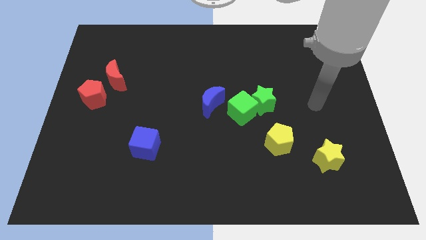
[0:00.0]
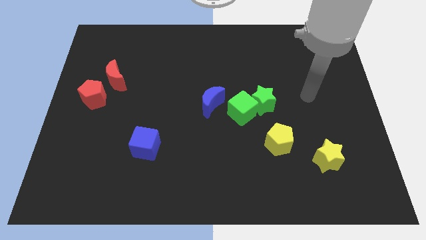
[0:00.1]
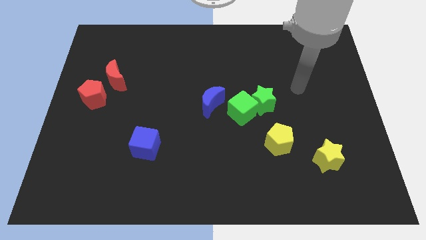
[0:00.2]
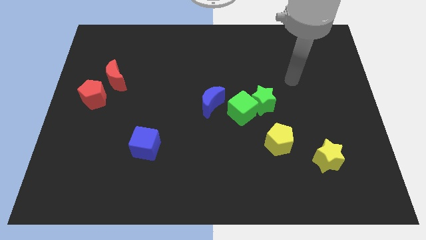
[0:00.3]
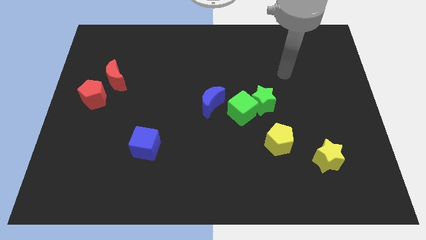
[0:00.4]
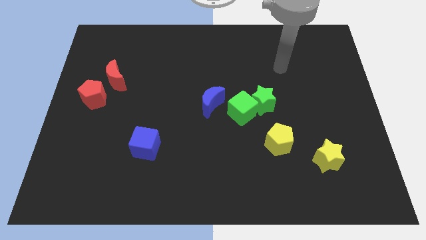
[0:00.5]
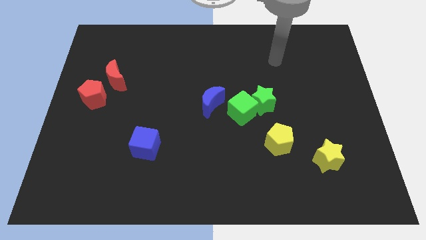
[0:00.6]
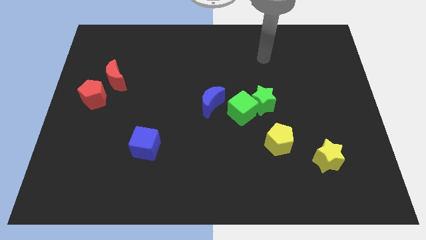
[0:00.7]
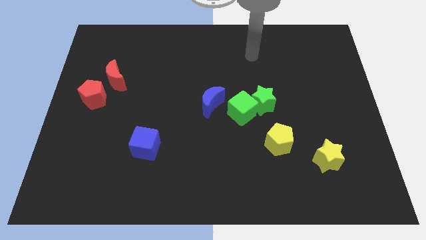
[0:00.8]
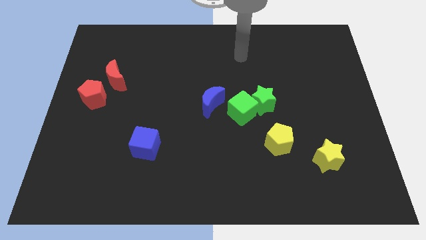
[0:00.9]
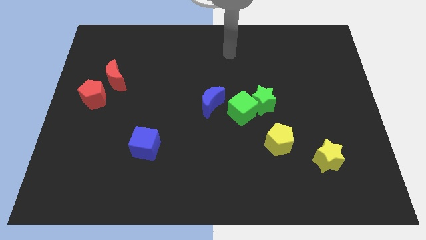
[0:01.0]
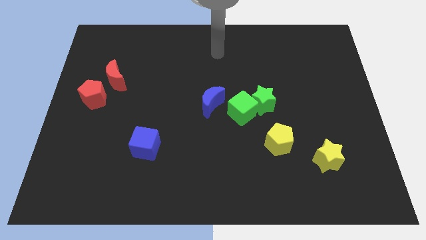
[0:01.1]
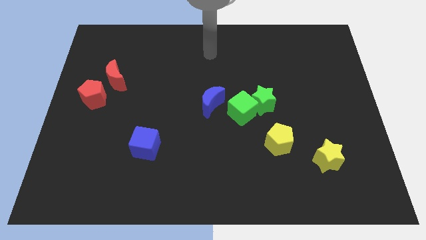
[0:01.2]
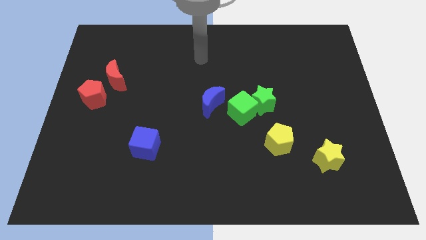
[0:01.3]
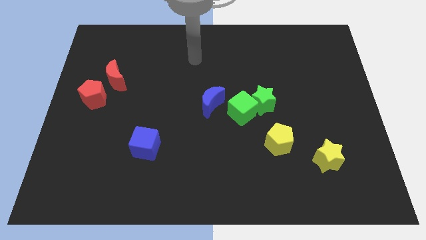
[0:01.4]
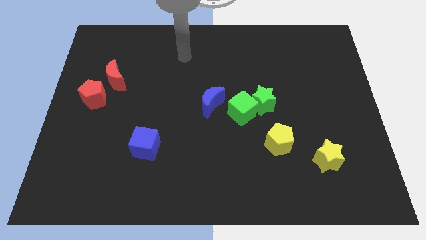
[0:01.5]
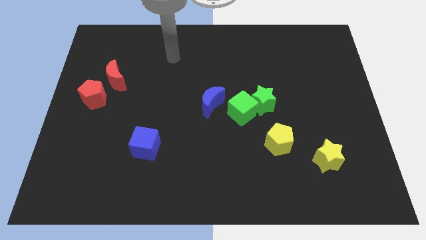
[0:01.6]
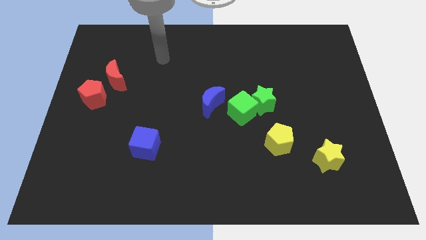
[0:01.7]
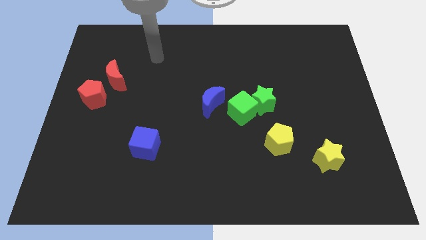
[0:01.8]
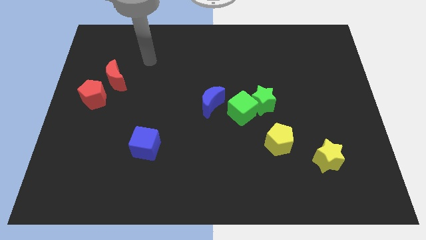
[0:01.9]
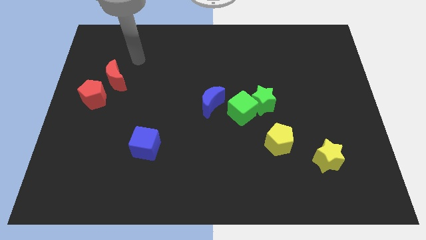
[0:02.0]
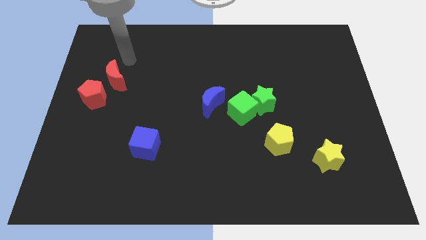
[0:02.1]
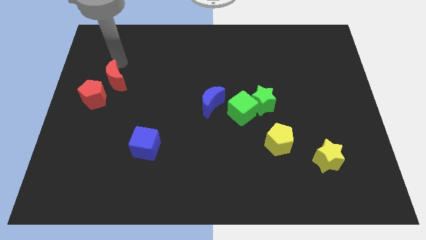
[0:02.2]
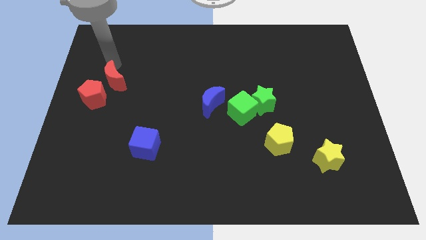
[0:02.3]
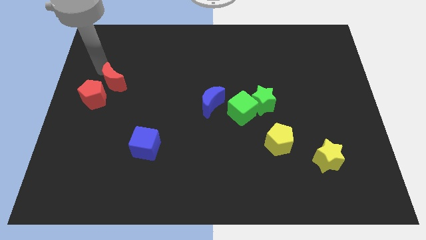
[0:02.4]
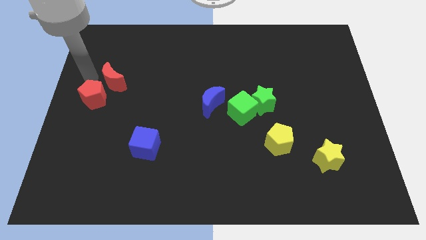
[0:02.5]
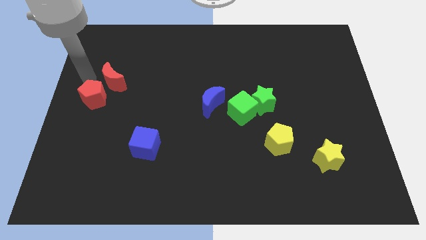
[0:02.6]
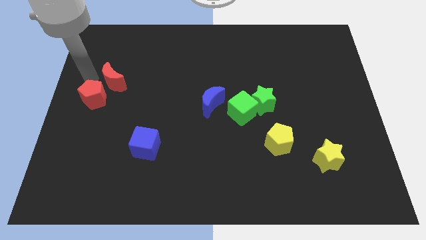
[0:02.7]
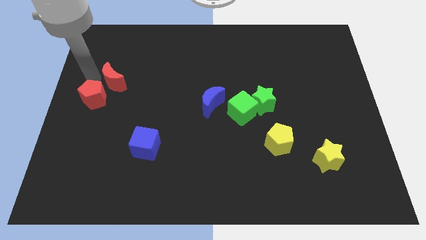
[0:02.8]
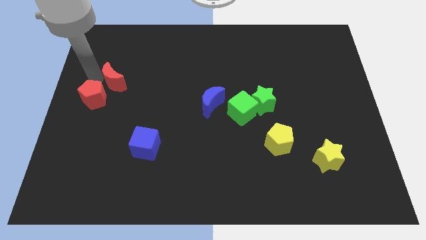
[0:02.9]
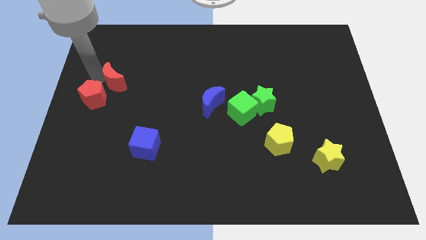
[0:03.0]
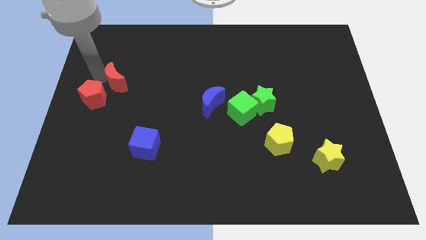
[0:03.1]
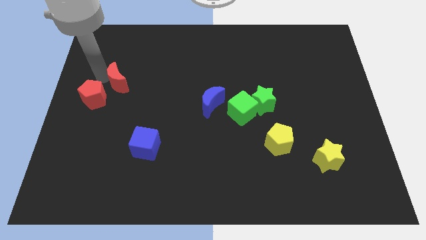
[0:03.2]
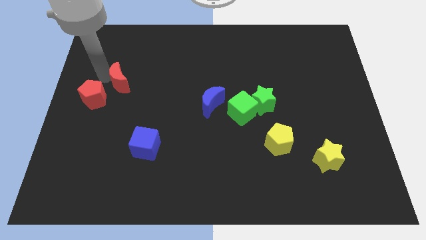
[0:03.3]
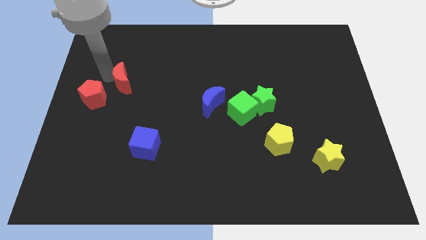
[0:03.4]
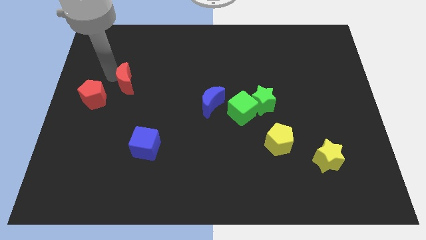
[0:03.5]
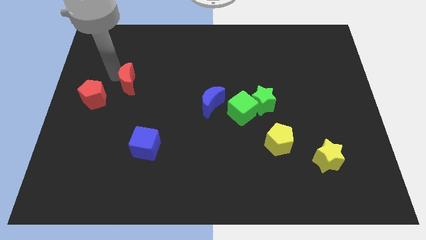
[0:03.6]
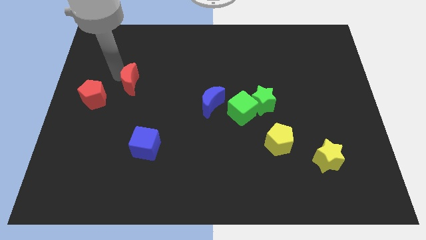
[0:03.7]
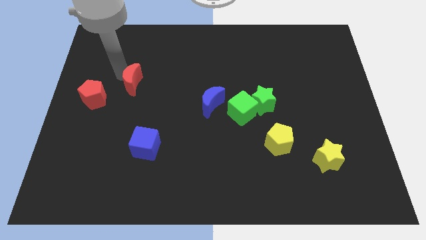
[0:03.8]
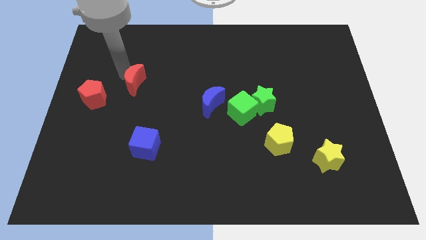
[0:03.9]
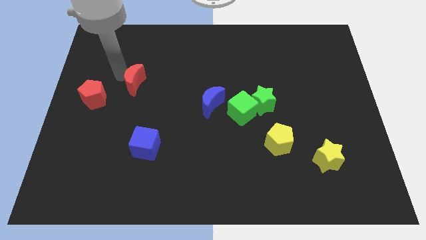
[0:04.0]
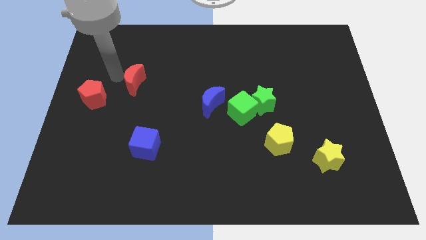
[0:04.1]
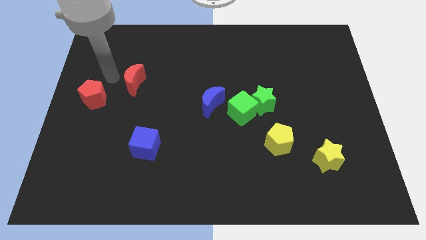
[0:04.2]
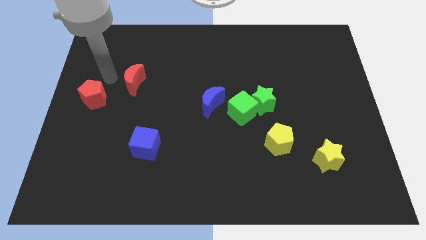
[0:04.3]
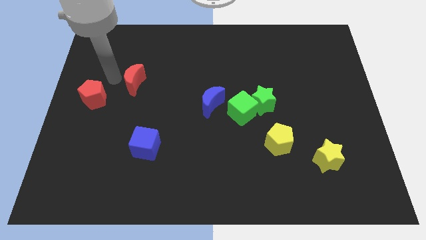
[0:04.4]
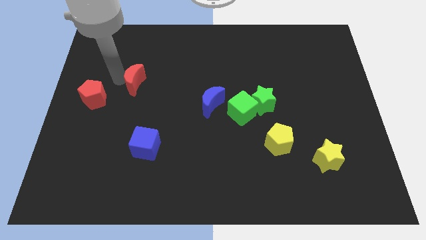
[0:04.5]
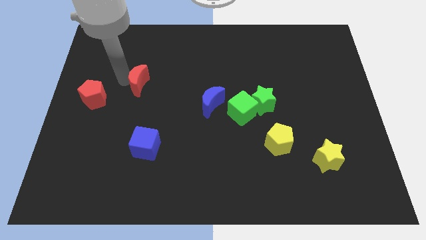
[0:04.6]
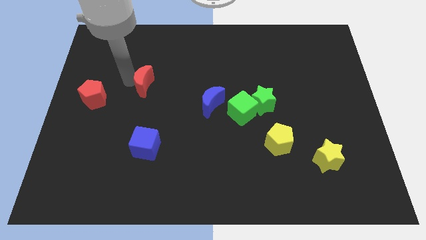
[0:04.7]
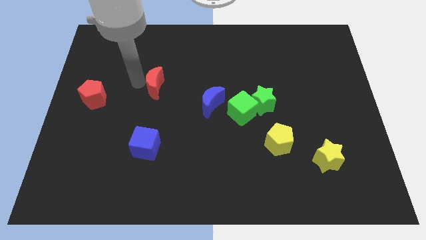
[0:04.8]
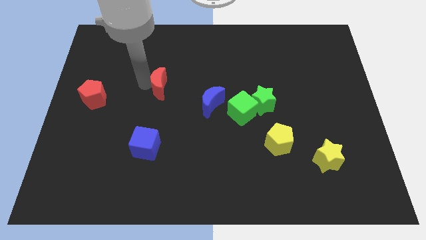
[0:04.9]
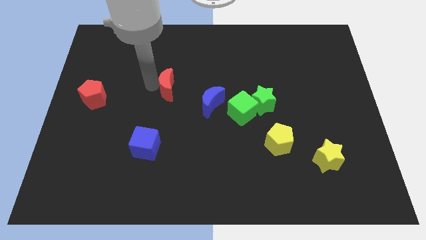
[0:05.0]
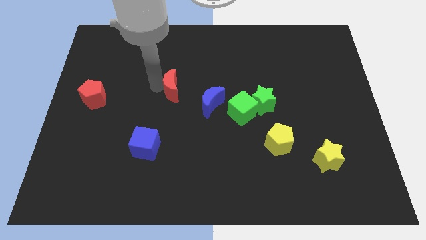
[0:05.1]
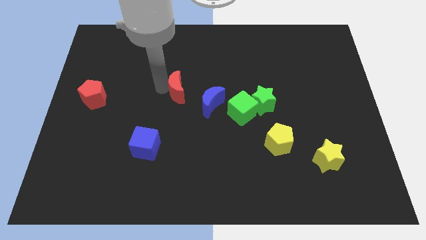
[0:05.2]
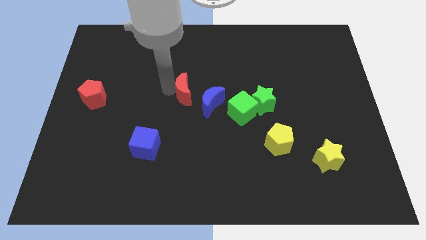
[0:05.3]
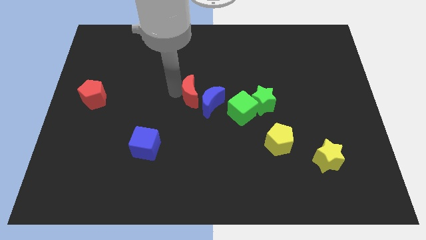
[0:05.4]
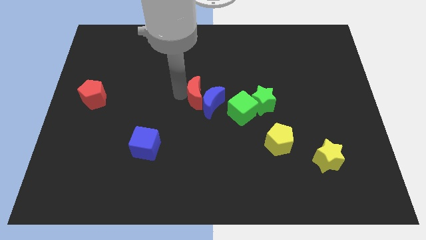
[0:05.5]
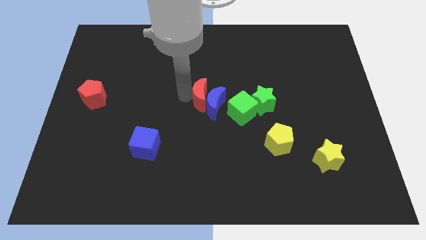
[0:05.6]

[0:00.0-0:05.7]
slide the red moon to the right

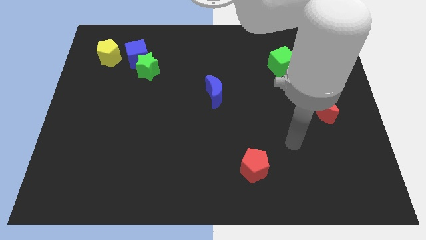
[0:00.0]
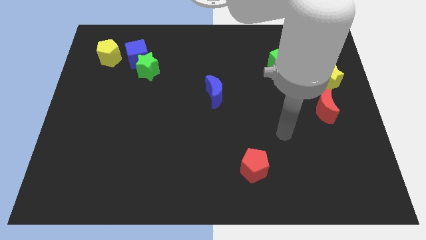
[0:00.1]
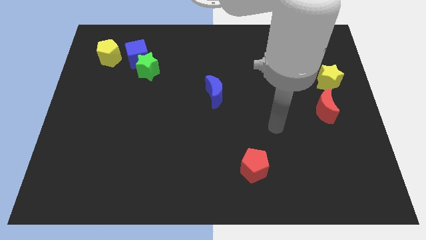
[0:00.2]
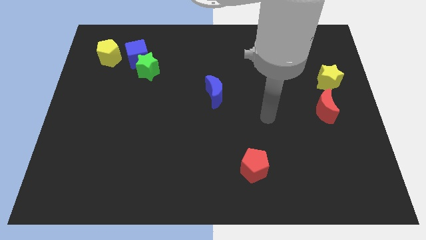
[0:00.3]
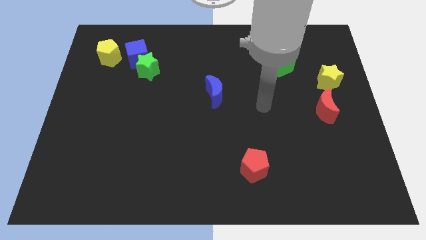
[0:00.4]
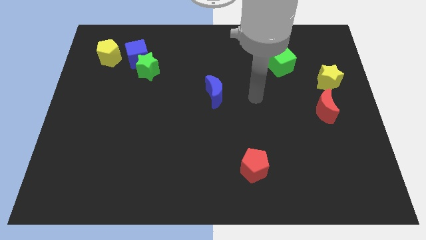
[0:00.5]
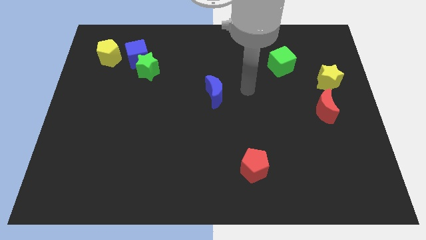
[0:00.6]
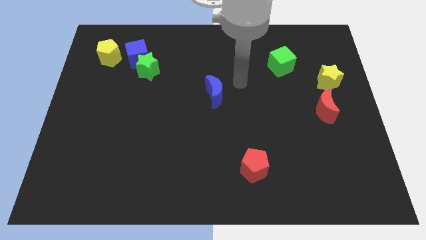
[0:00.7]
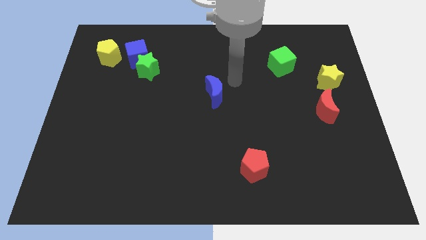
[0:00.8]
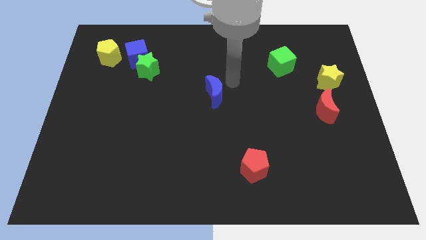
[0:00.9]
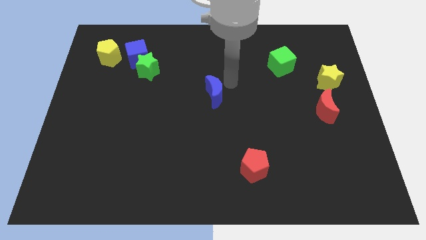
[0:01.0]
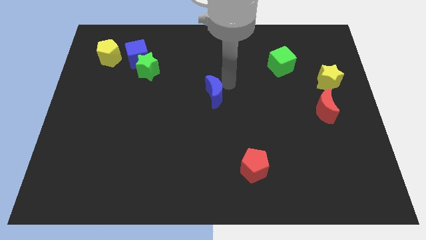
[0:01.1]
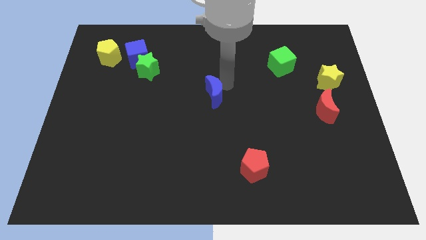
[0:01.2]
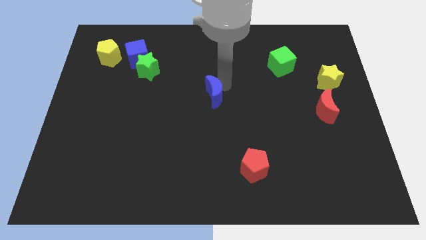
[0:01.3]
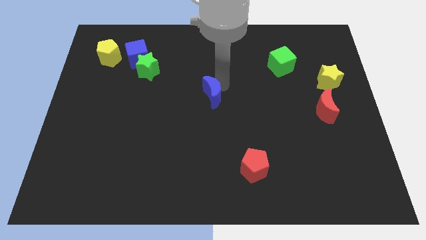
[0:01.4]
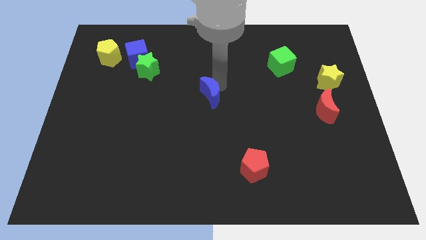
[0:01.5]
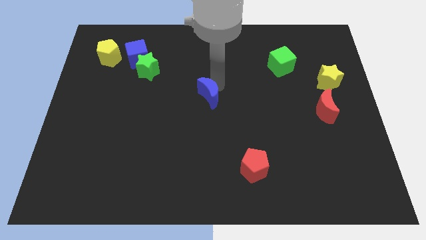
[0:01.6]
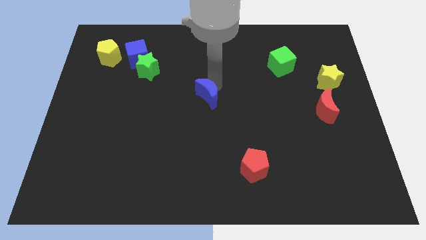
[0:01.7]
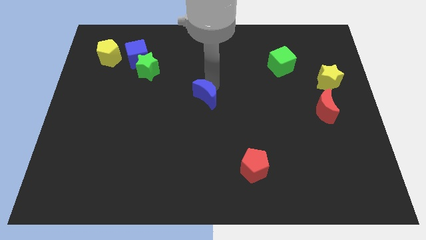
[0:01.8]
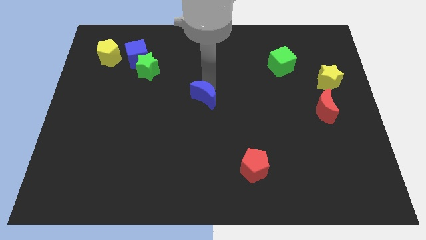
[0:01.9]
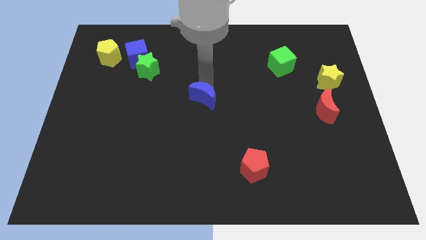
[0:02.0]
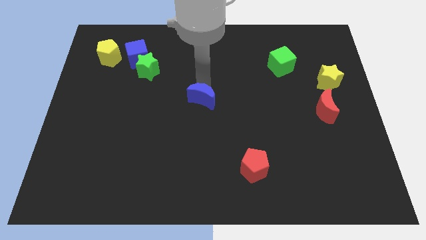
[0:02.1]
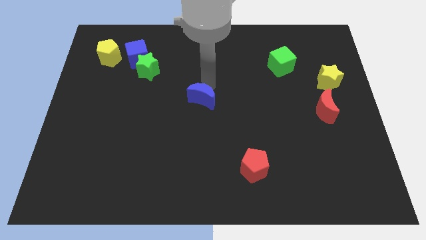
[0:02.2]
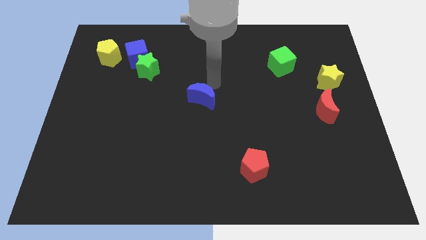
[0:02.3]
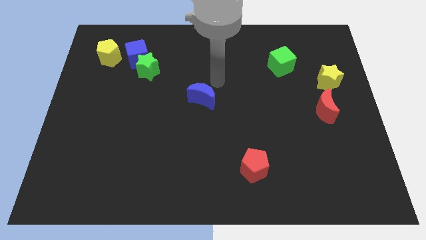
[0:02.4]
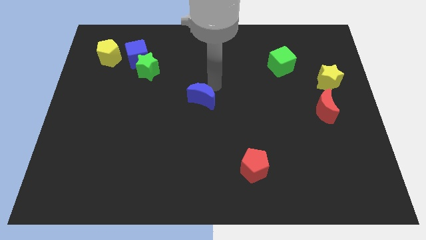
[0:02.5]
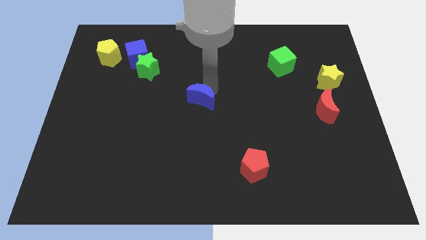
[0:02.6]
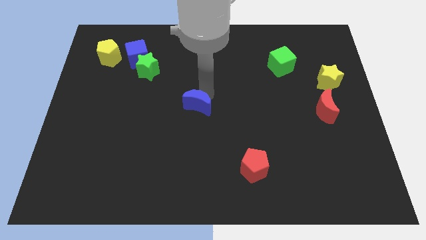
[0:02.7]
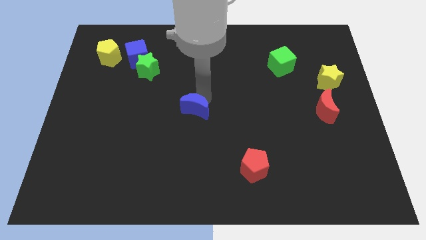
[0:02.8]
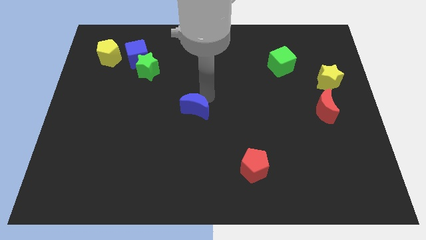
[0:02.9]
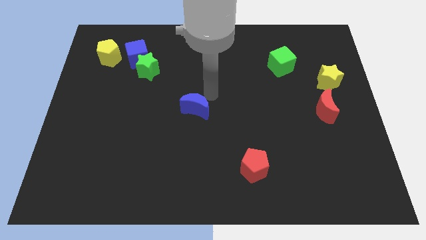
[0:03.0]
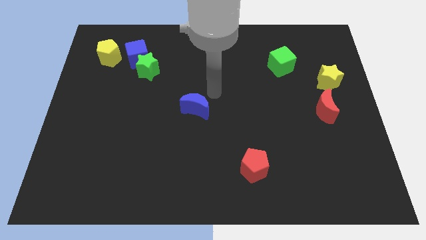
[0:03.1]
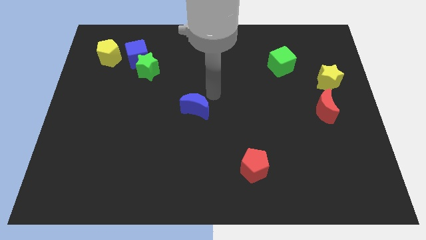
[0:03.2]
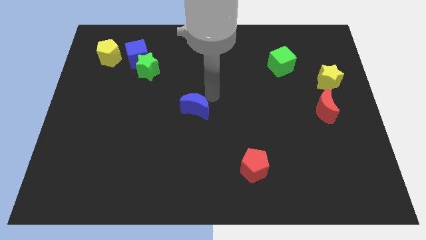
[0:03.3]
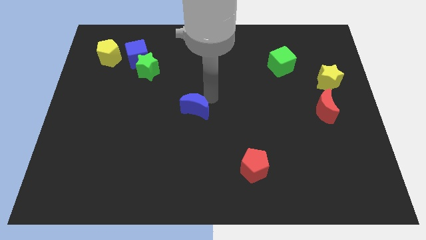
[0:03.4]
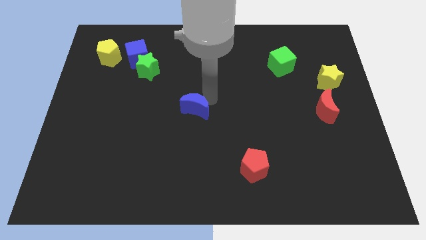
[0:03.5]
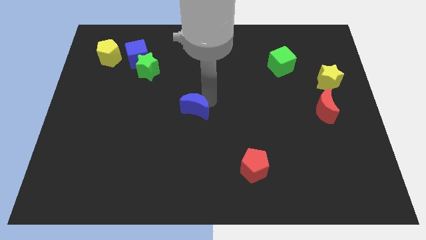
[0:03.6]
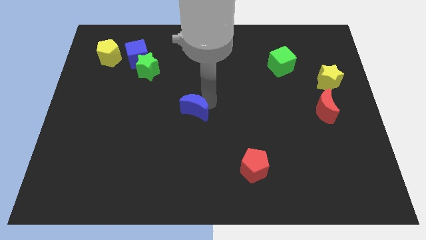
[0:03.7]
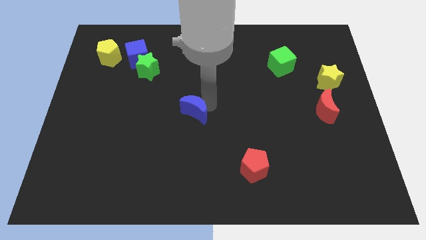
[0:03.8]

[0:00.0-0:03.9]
slightly move the blue moon diagonally down and to the left
